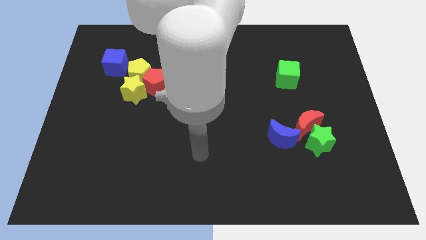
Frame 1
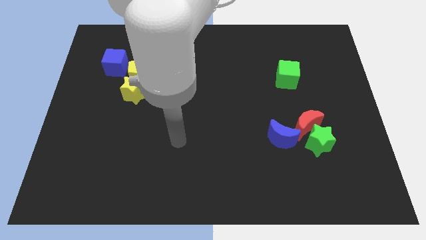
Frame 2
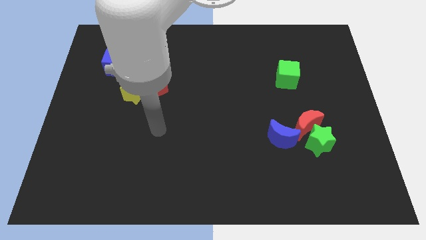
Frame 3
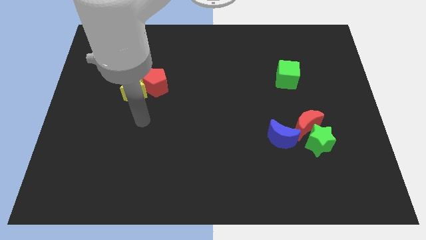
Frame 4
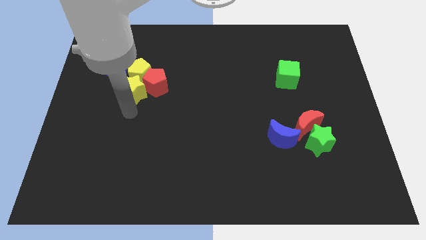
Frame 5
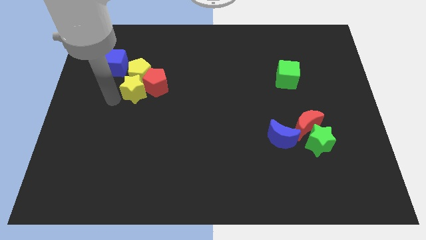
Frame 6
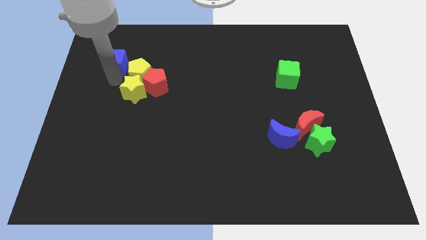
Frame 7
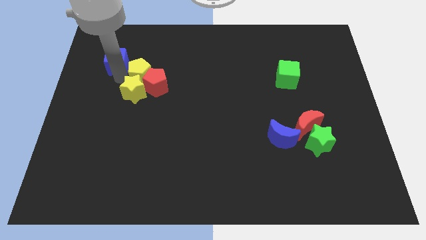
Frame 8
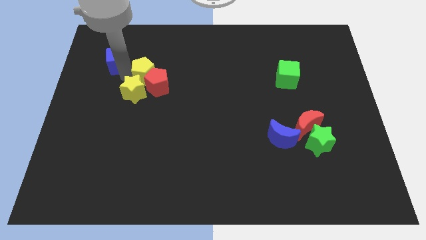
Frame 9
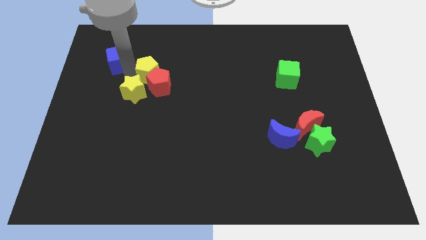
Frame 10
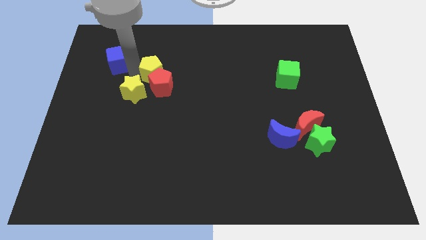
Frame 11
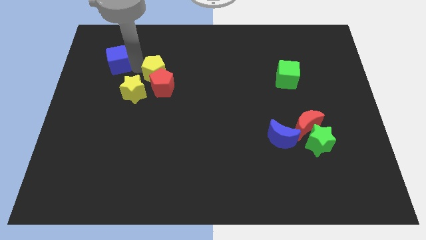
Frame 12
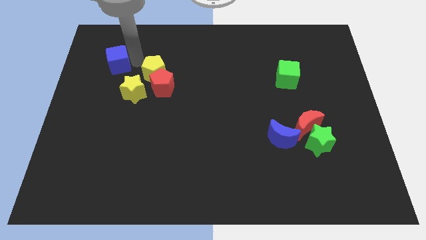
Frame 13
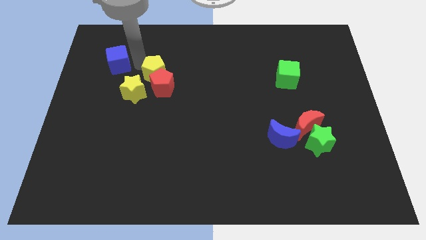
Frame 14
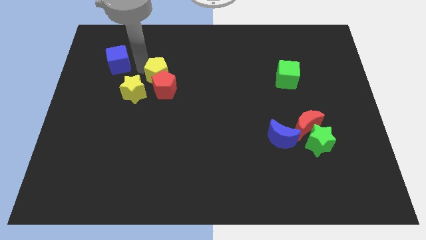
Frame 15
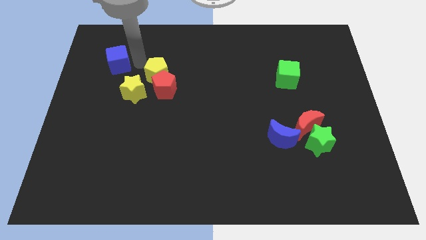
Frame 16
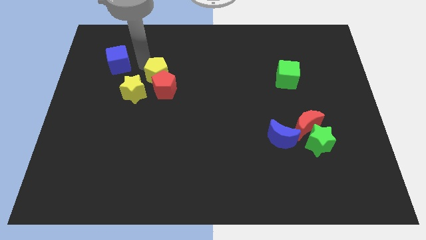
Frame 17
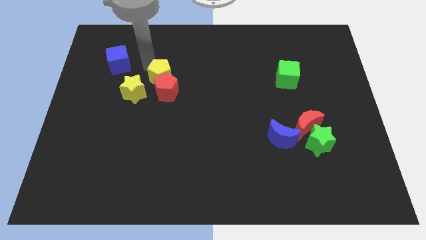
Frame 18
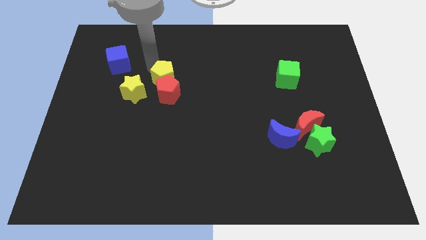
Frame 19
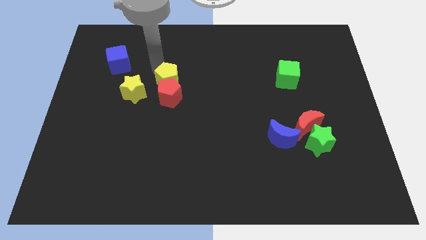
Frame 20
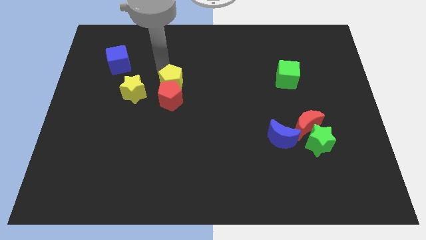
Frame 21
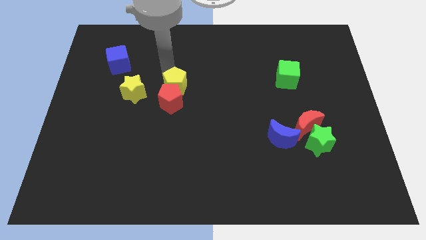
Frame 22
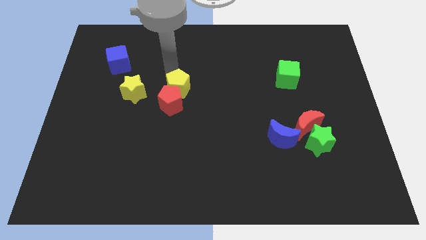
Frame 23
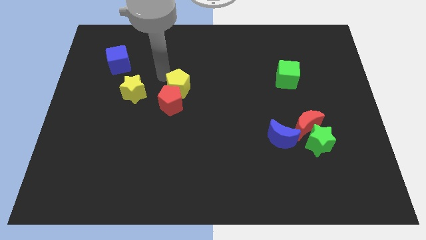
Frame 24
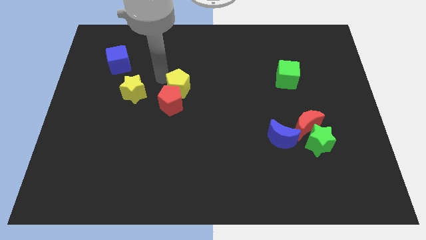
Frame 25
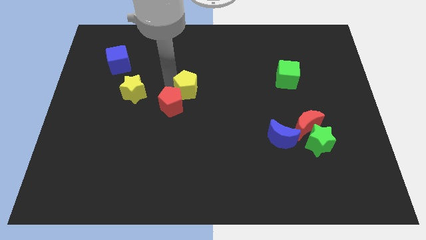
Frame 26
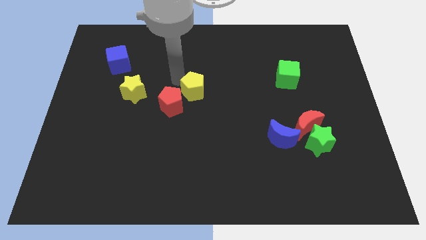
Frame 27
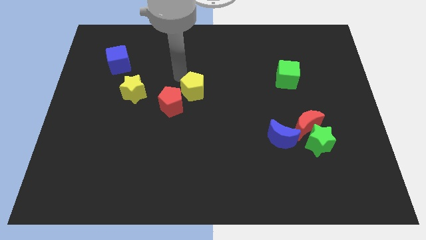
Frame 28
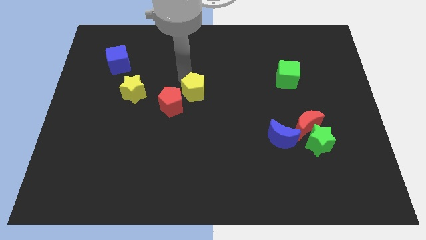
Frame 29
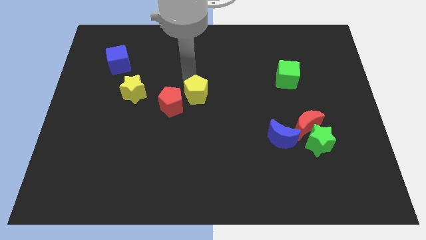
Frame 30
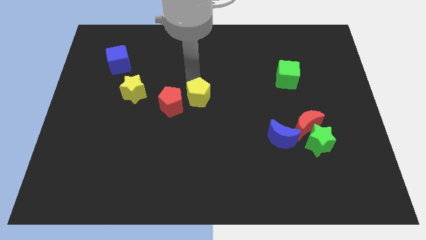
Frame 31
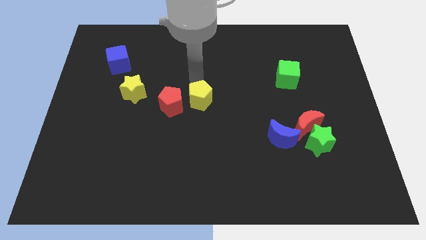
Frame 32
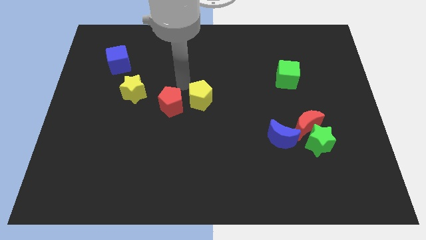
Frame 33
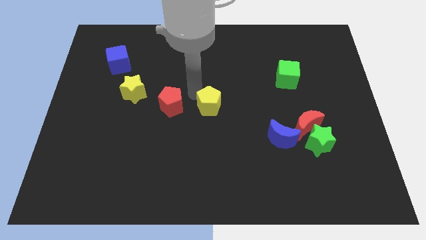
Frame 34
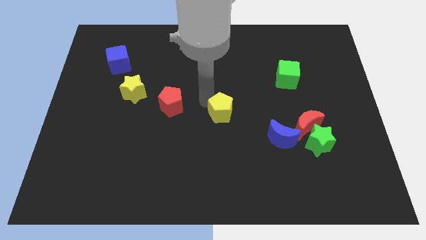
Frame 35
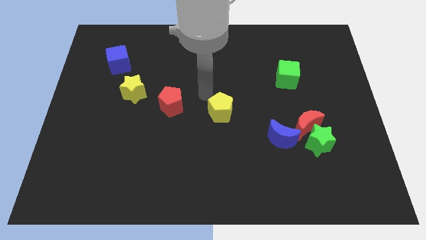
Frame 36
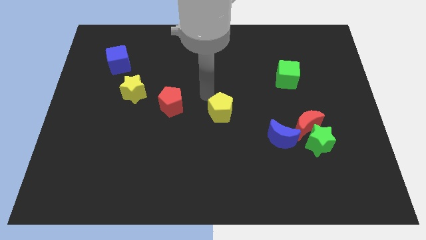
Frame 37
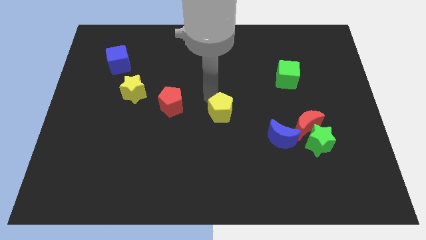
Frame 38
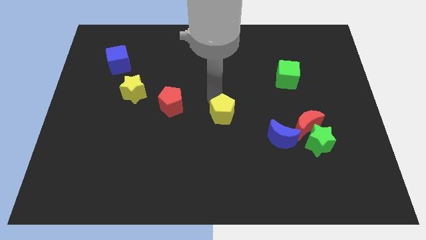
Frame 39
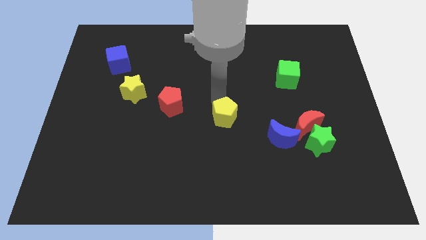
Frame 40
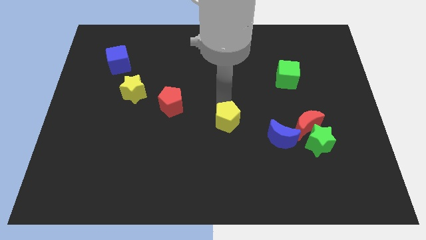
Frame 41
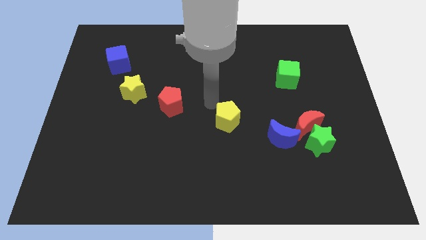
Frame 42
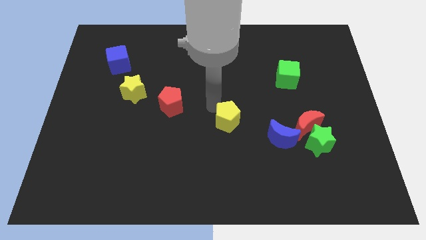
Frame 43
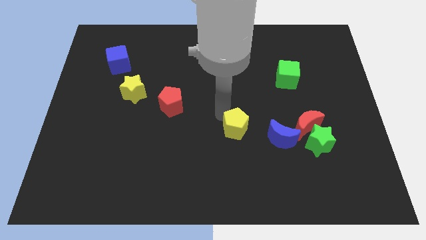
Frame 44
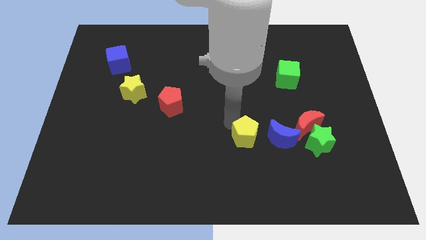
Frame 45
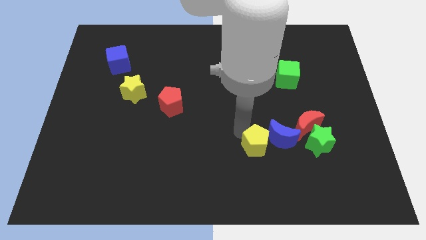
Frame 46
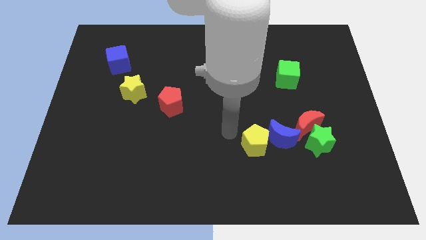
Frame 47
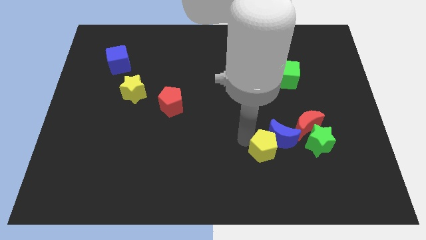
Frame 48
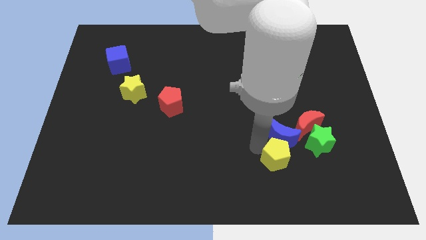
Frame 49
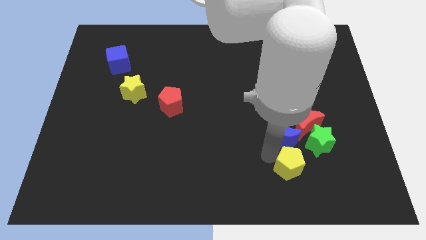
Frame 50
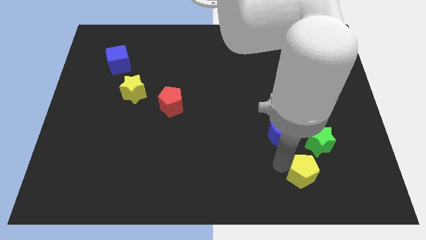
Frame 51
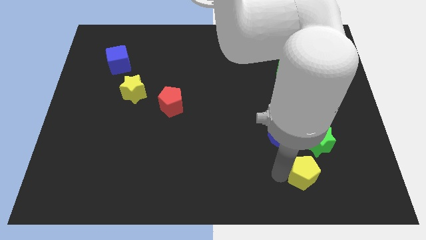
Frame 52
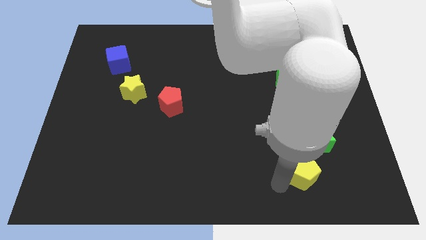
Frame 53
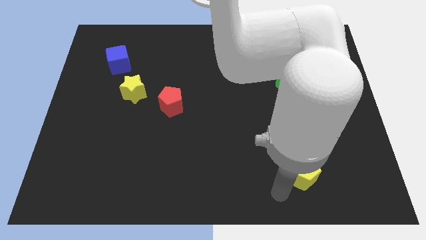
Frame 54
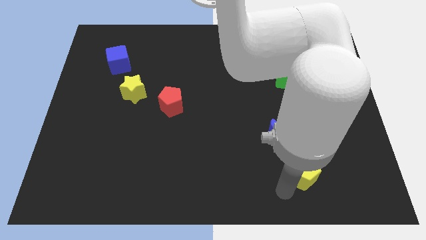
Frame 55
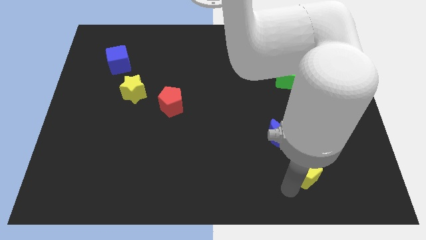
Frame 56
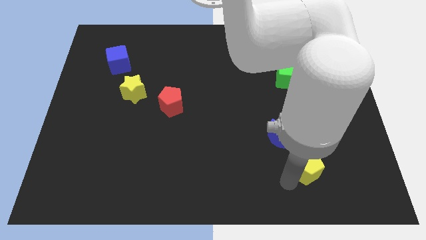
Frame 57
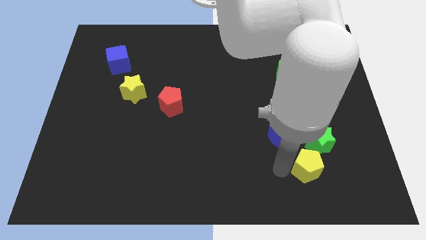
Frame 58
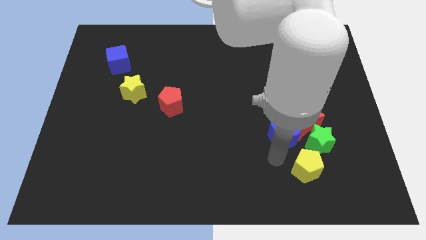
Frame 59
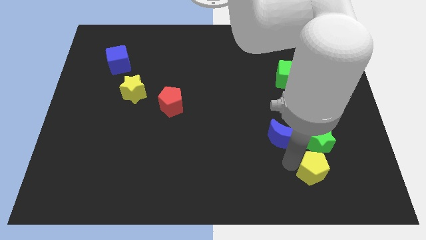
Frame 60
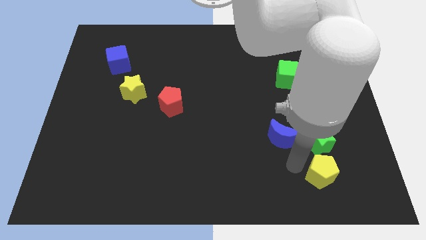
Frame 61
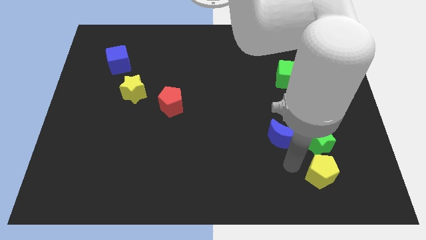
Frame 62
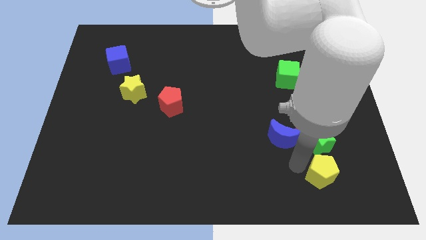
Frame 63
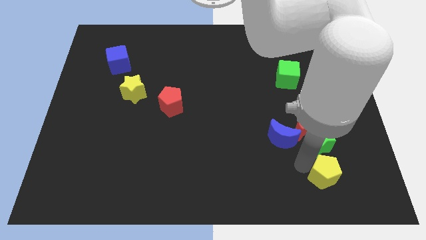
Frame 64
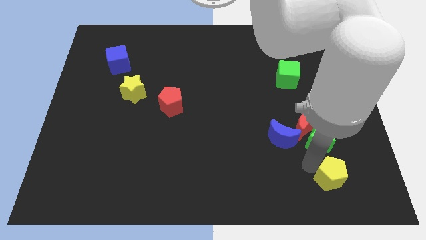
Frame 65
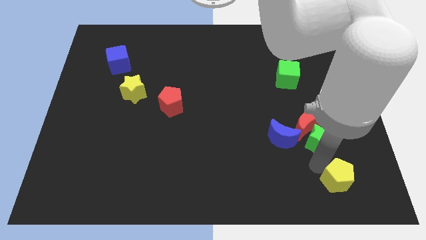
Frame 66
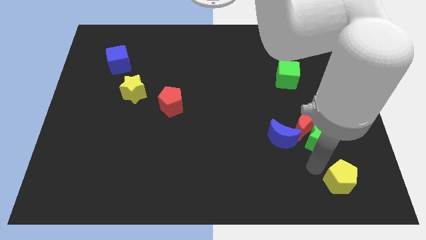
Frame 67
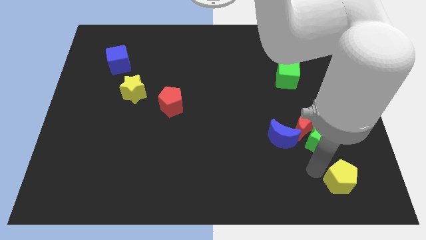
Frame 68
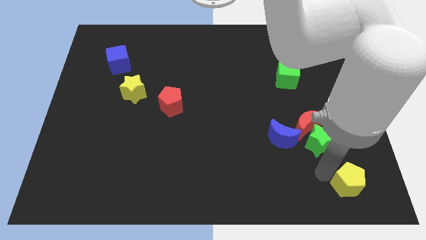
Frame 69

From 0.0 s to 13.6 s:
put the yellow pentagon to the bottom right corner
